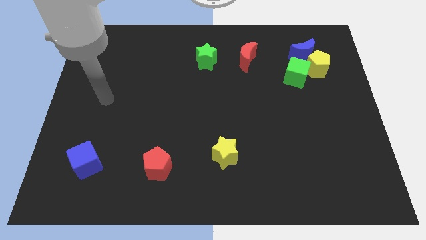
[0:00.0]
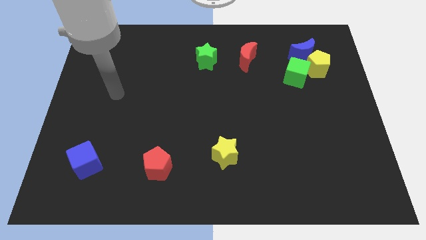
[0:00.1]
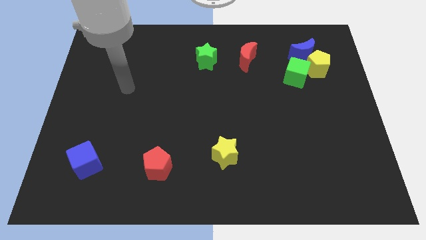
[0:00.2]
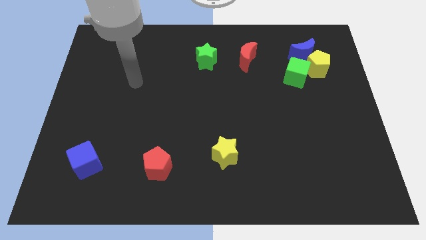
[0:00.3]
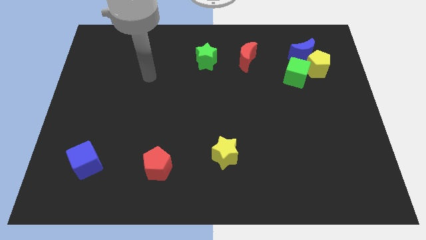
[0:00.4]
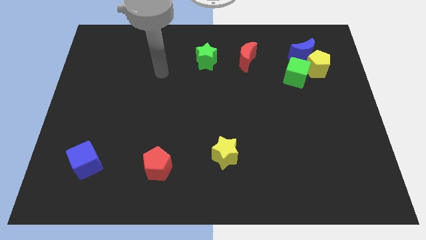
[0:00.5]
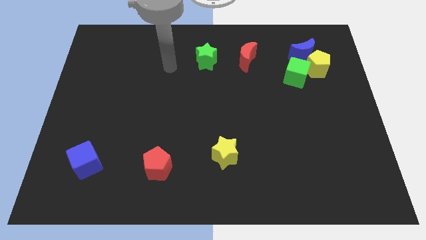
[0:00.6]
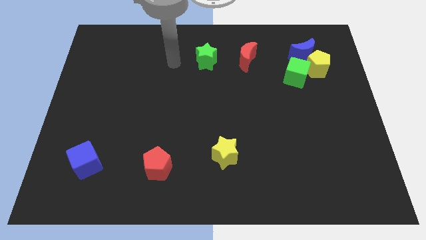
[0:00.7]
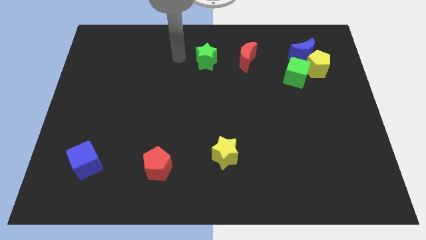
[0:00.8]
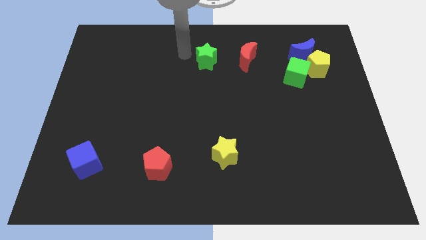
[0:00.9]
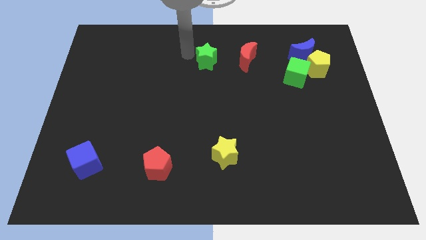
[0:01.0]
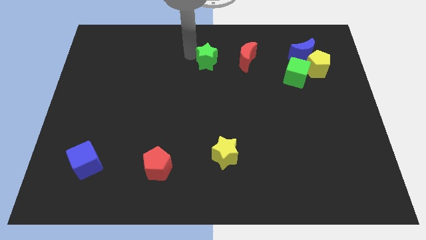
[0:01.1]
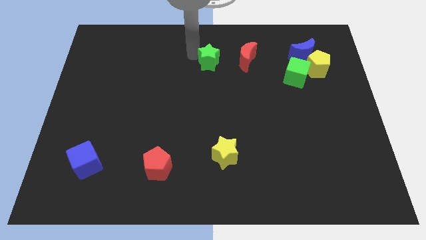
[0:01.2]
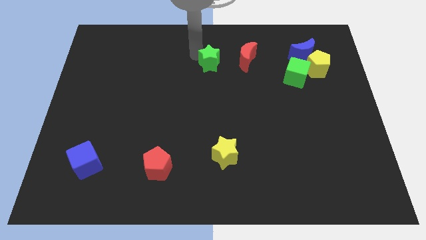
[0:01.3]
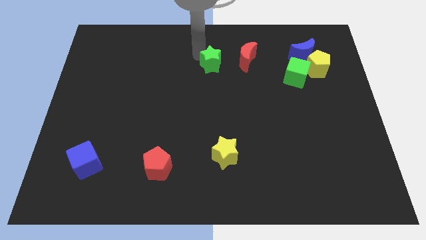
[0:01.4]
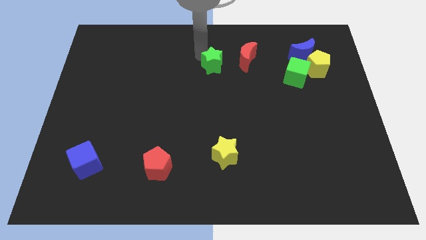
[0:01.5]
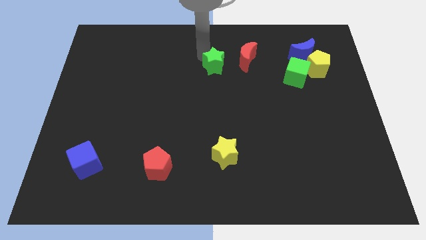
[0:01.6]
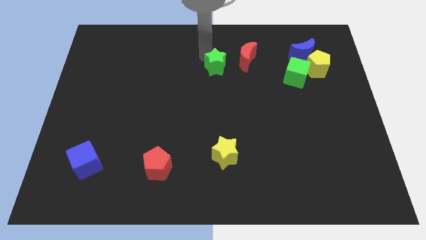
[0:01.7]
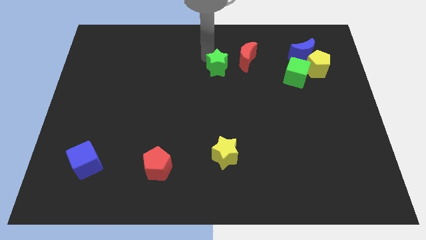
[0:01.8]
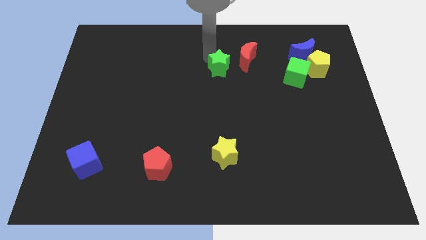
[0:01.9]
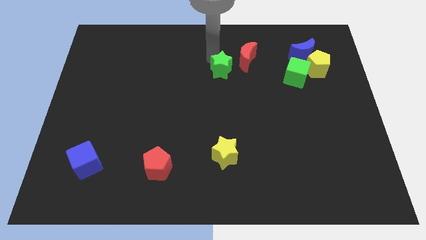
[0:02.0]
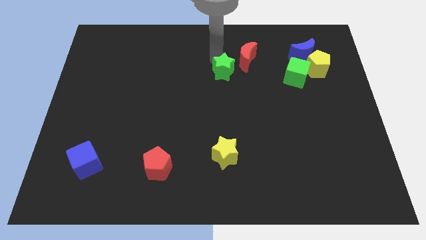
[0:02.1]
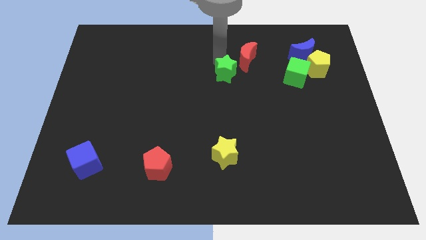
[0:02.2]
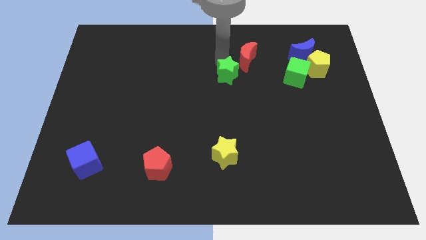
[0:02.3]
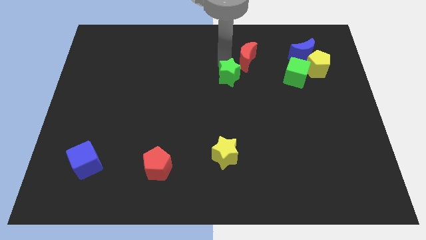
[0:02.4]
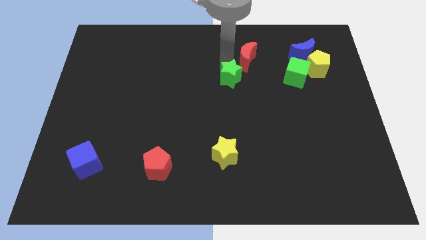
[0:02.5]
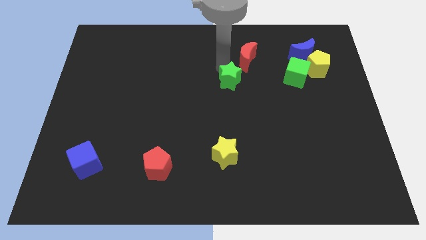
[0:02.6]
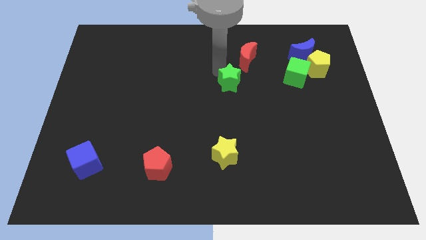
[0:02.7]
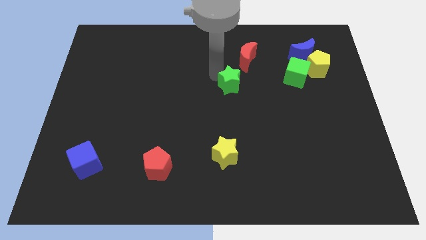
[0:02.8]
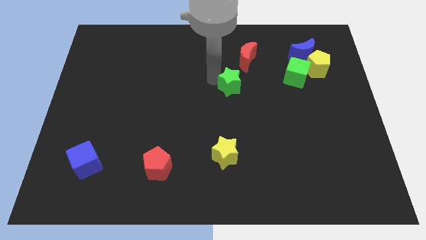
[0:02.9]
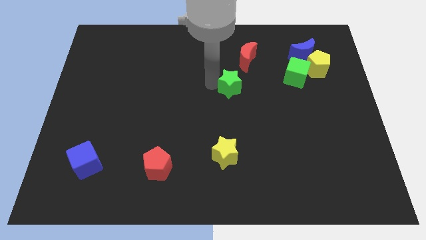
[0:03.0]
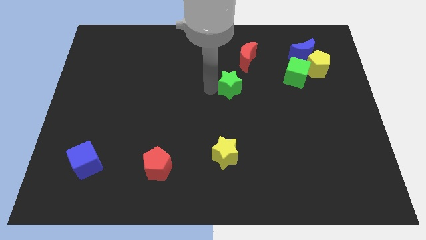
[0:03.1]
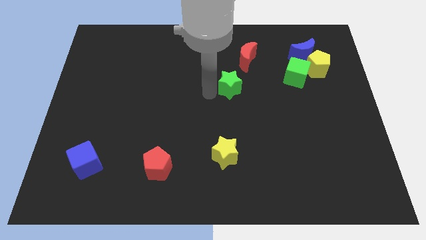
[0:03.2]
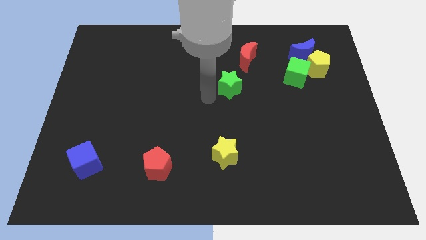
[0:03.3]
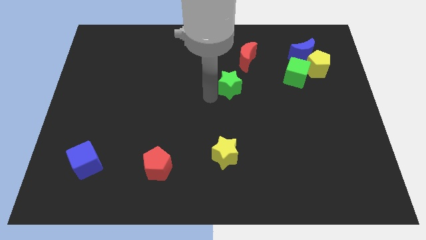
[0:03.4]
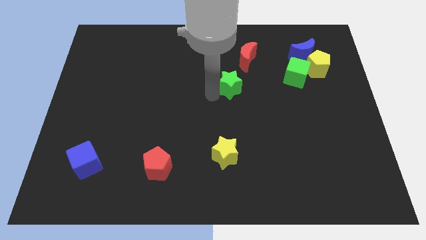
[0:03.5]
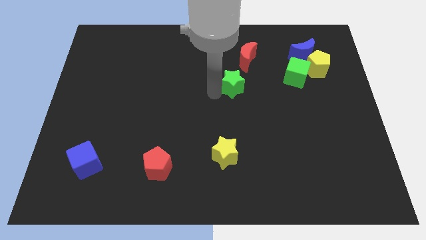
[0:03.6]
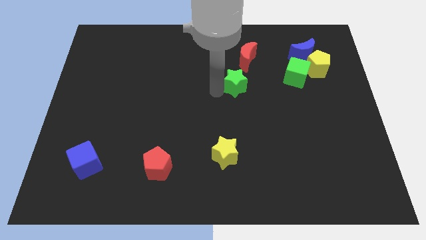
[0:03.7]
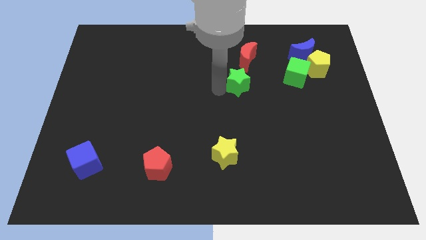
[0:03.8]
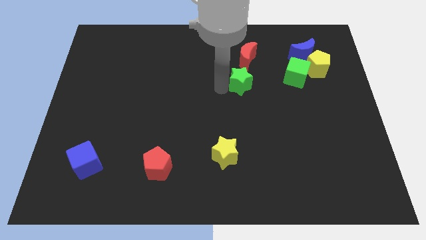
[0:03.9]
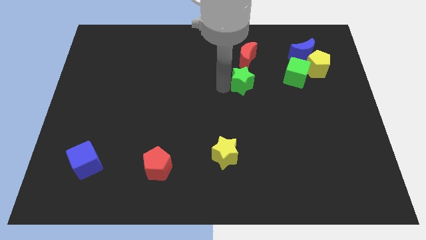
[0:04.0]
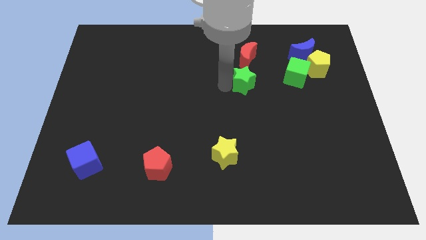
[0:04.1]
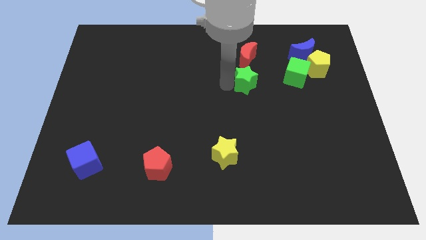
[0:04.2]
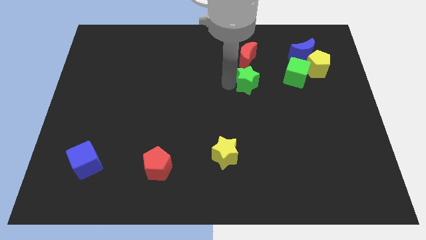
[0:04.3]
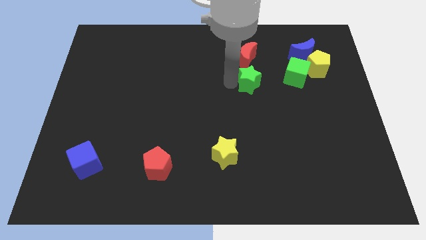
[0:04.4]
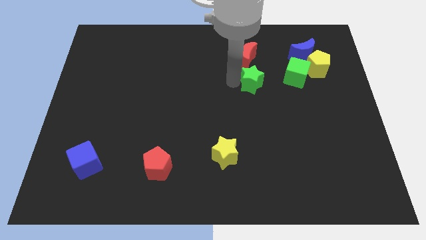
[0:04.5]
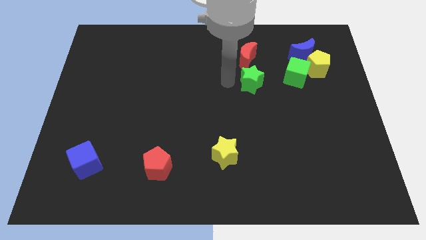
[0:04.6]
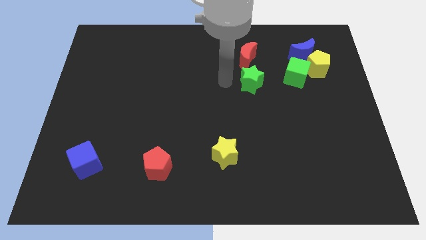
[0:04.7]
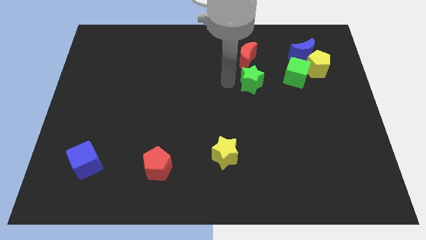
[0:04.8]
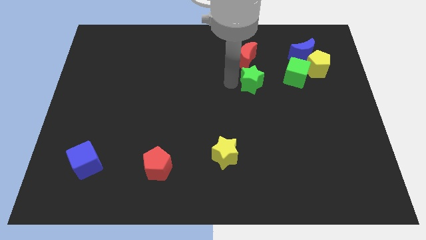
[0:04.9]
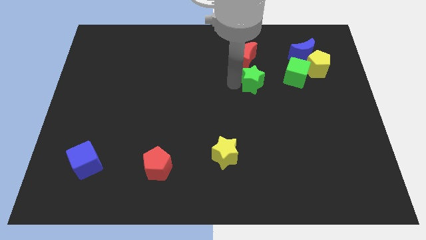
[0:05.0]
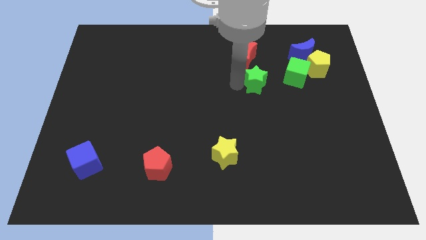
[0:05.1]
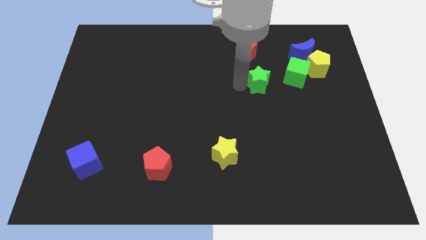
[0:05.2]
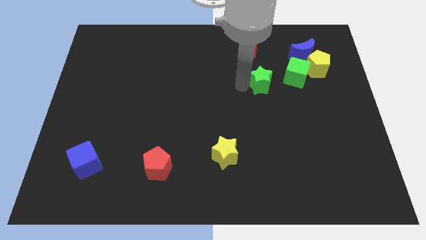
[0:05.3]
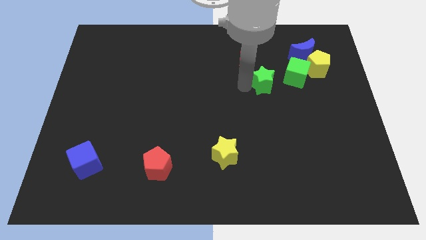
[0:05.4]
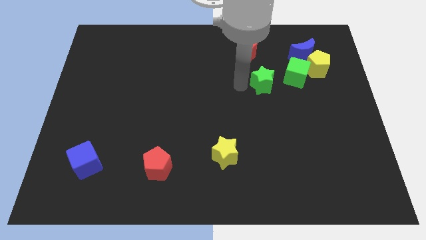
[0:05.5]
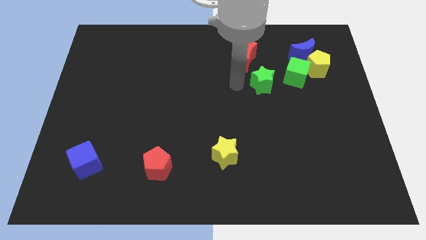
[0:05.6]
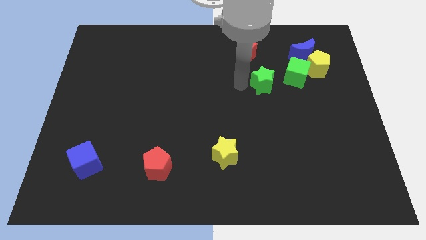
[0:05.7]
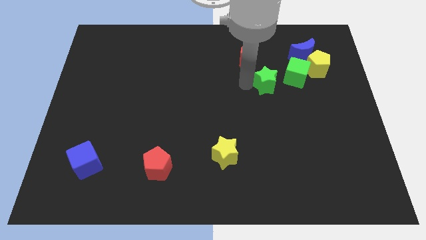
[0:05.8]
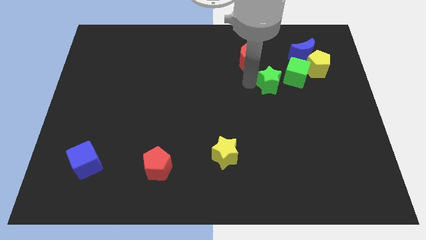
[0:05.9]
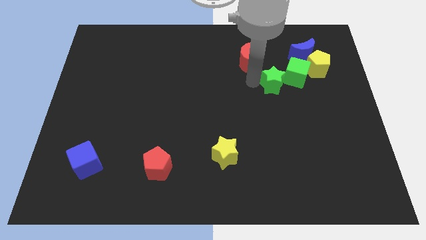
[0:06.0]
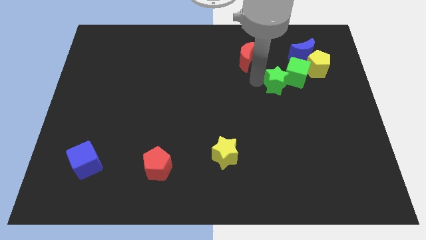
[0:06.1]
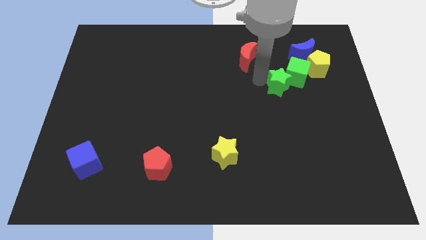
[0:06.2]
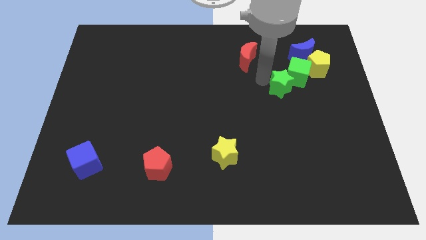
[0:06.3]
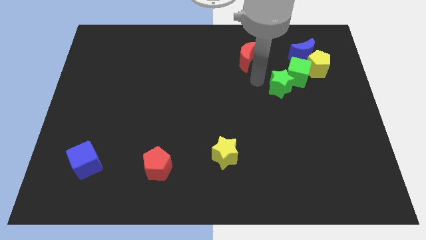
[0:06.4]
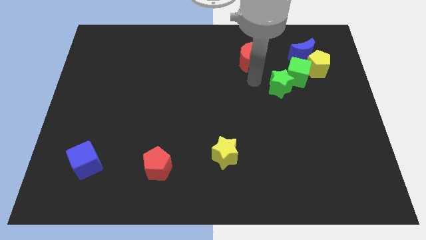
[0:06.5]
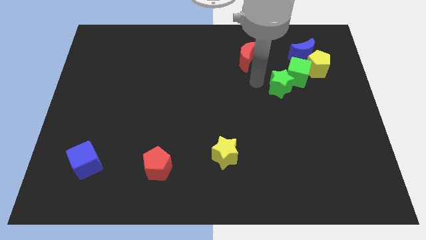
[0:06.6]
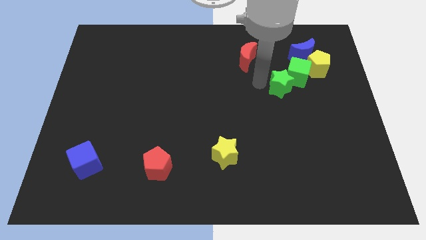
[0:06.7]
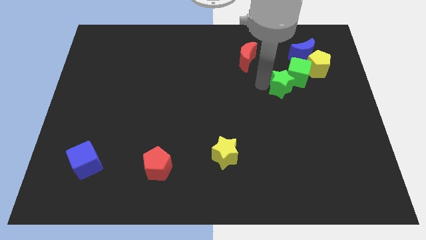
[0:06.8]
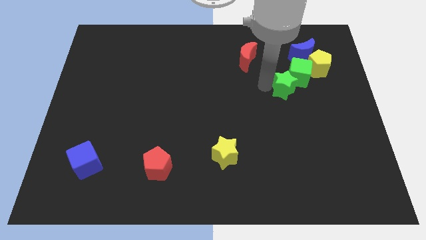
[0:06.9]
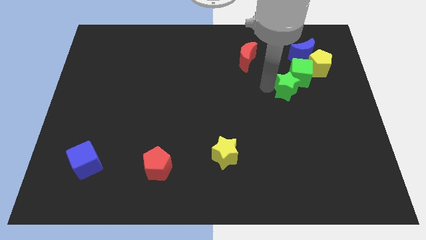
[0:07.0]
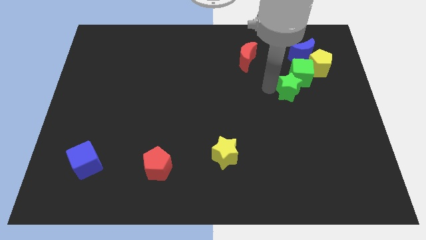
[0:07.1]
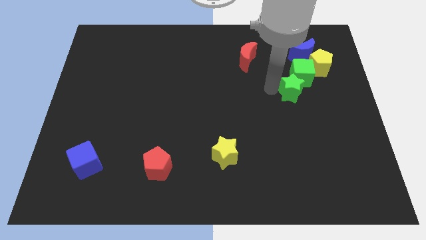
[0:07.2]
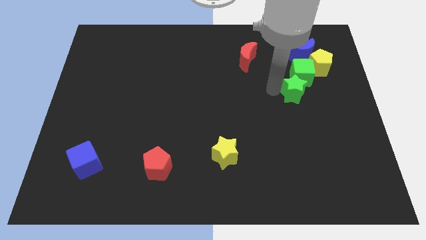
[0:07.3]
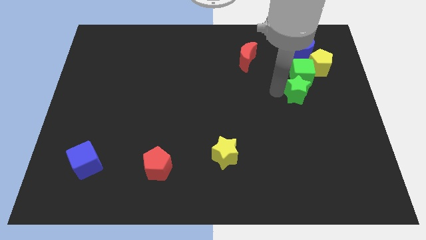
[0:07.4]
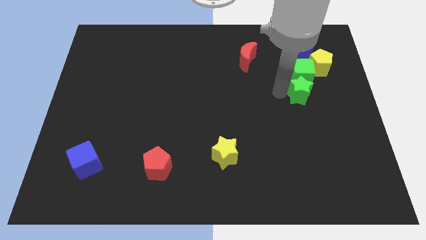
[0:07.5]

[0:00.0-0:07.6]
put the green star diagonally down and to the right of the green cube
